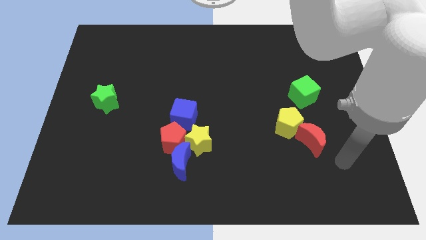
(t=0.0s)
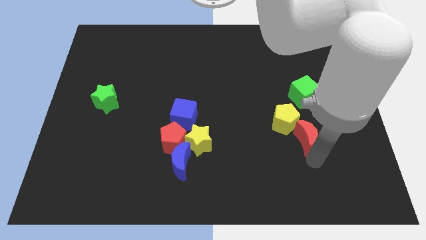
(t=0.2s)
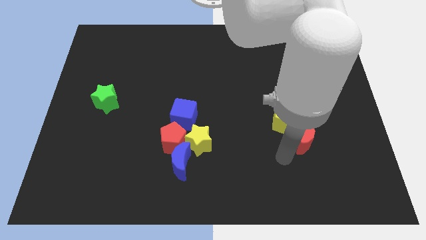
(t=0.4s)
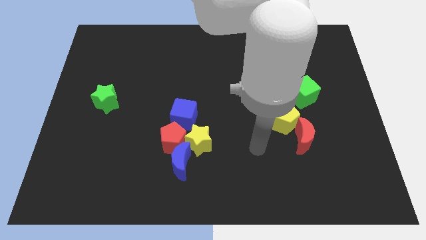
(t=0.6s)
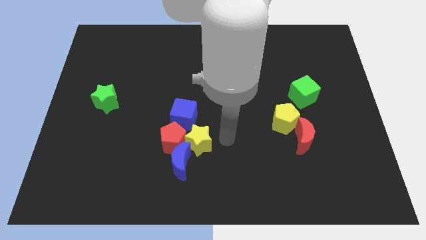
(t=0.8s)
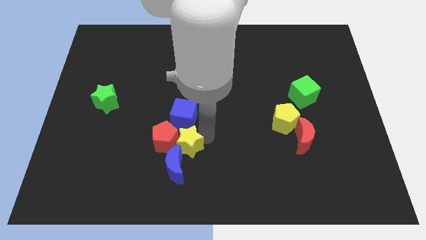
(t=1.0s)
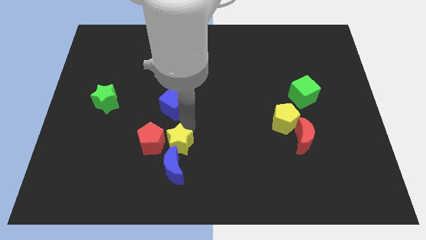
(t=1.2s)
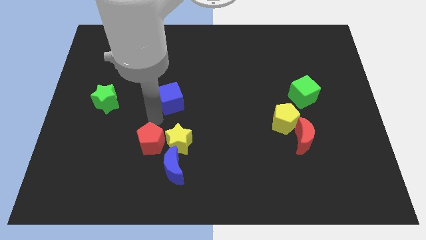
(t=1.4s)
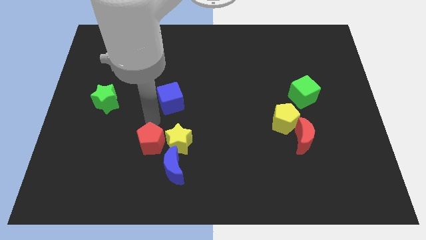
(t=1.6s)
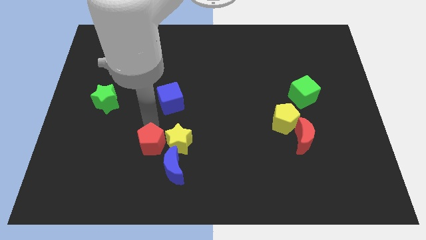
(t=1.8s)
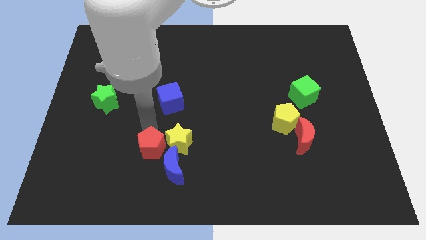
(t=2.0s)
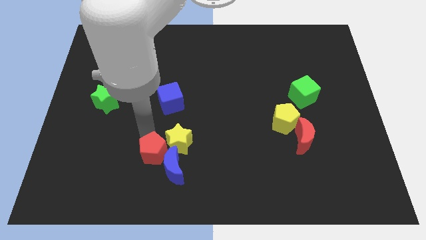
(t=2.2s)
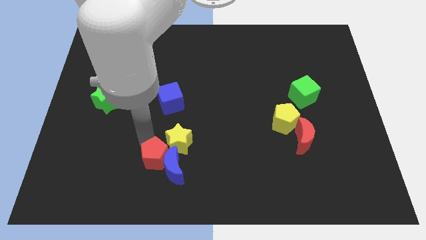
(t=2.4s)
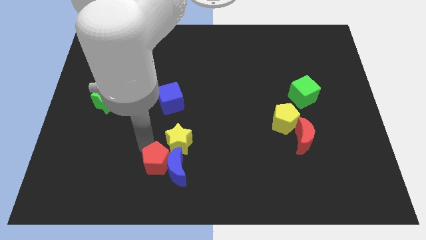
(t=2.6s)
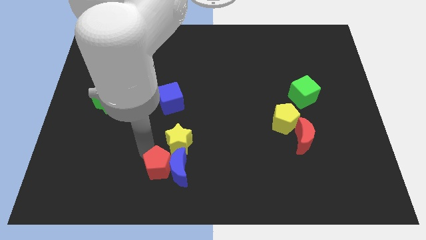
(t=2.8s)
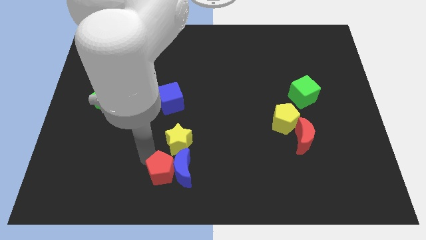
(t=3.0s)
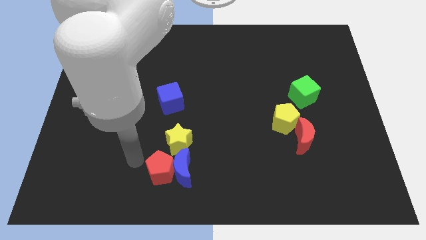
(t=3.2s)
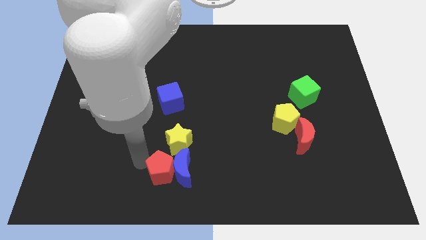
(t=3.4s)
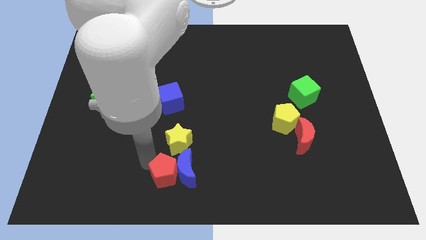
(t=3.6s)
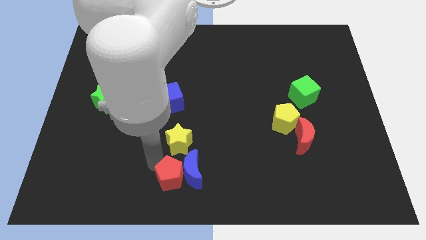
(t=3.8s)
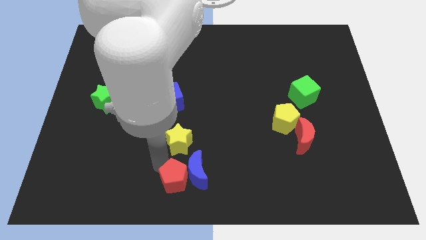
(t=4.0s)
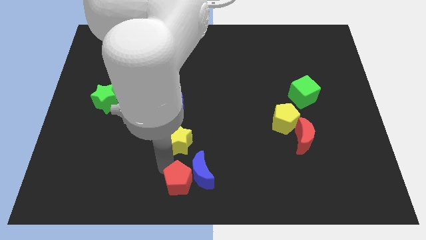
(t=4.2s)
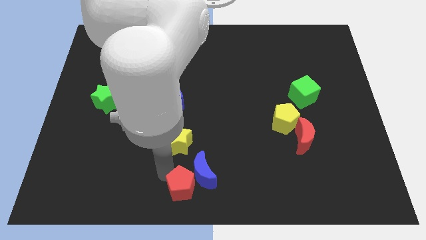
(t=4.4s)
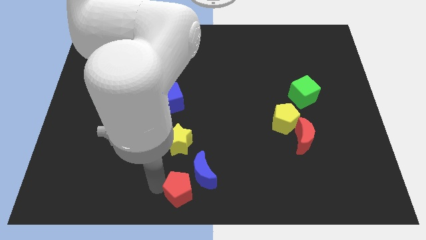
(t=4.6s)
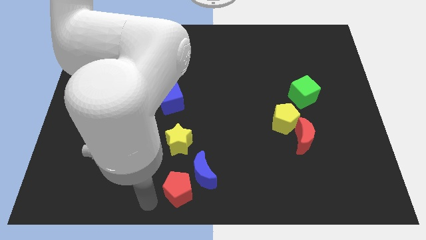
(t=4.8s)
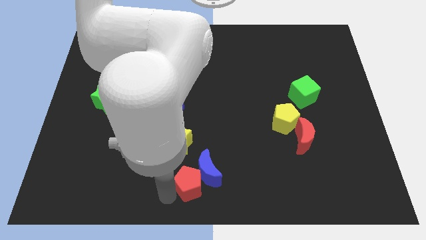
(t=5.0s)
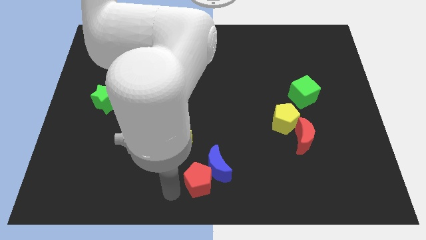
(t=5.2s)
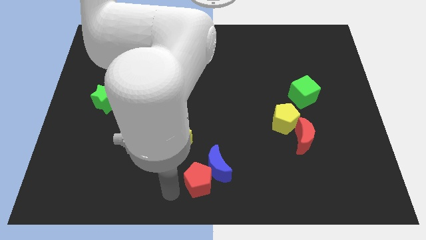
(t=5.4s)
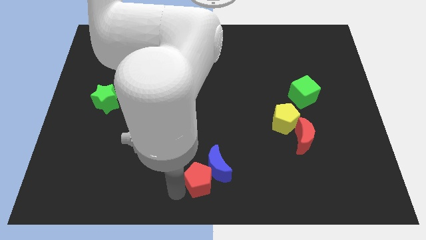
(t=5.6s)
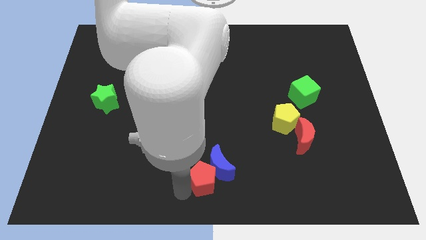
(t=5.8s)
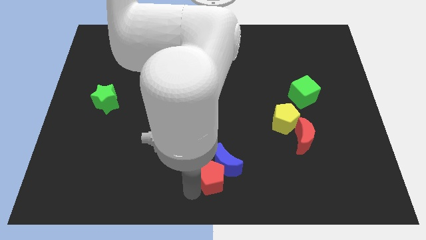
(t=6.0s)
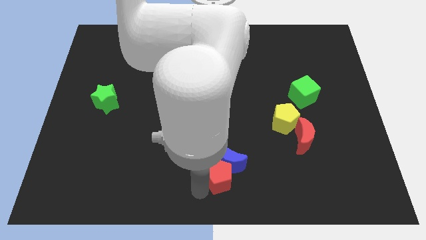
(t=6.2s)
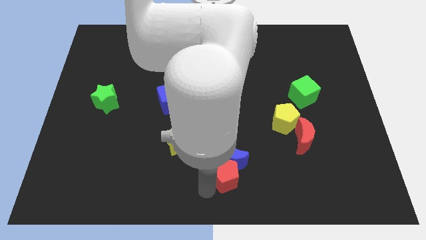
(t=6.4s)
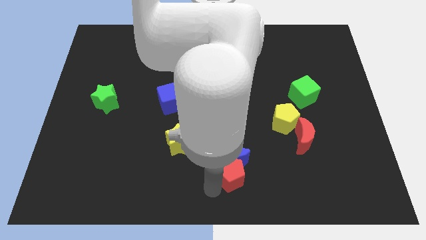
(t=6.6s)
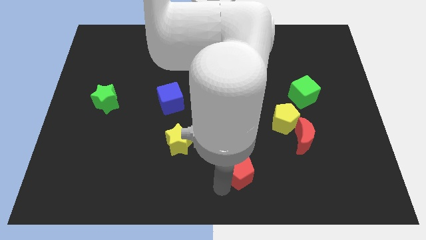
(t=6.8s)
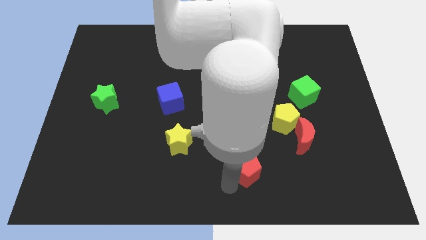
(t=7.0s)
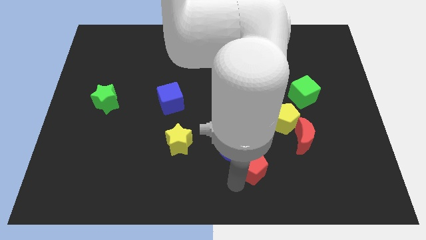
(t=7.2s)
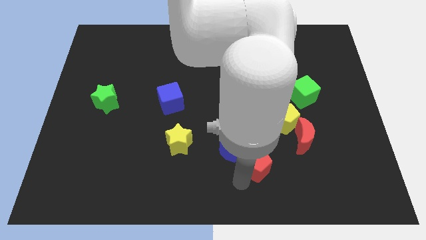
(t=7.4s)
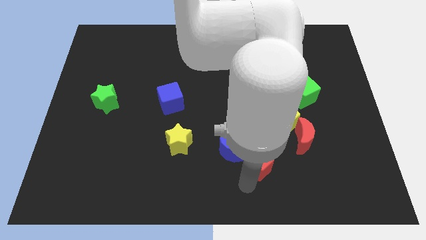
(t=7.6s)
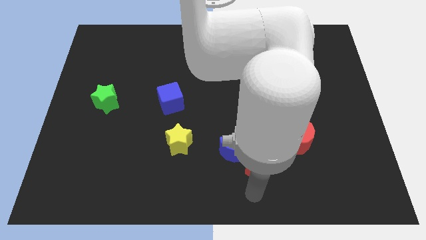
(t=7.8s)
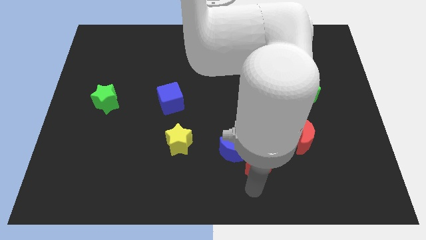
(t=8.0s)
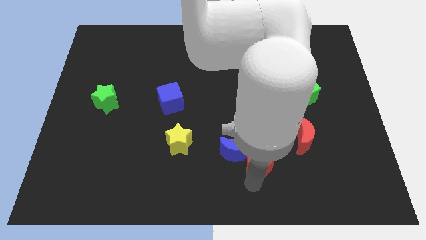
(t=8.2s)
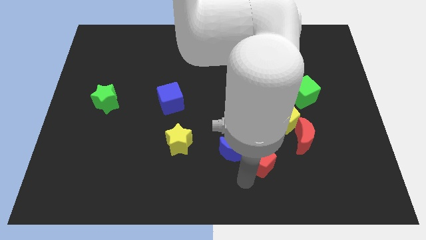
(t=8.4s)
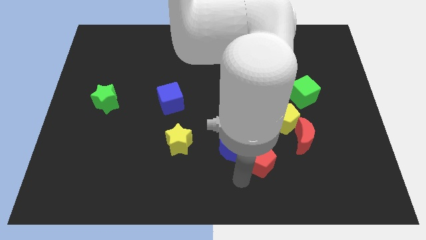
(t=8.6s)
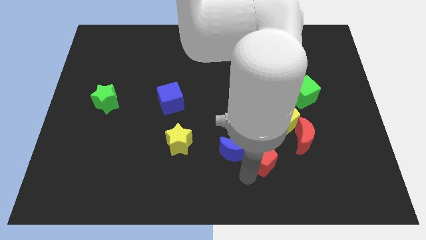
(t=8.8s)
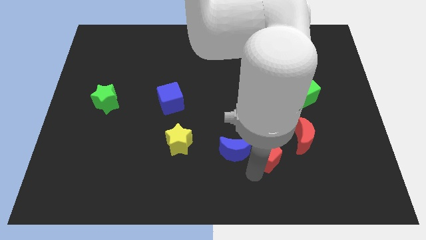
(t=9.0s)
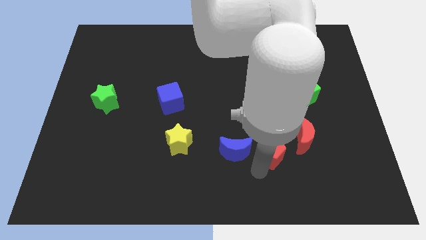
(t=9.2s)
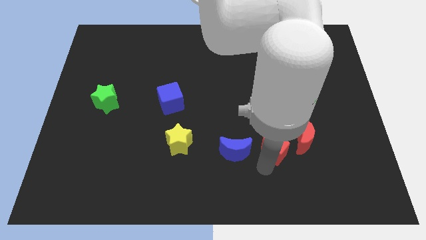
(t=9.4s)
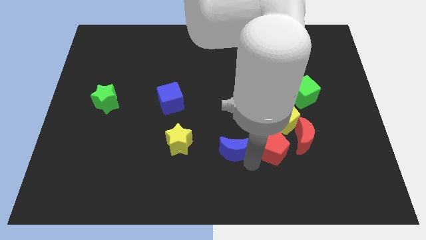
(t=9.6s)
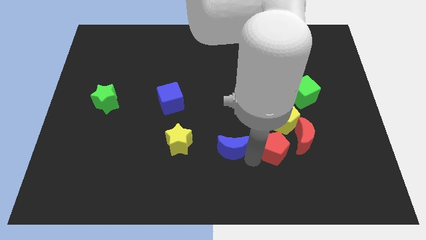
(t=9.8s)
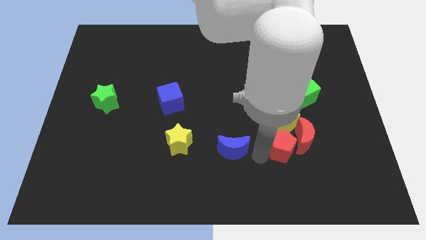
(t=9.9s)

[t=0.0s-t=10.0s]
put the red pentagon close to the red moon

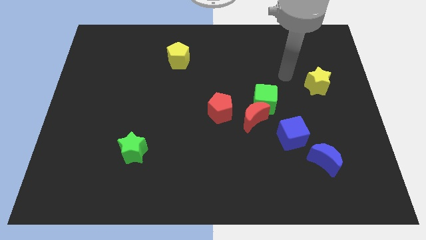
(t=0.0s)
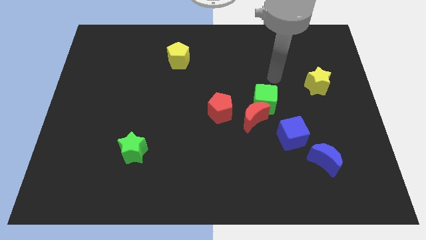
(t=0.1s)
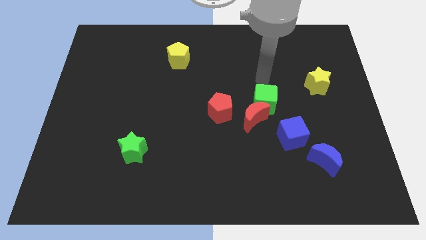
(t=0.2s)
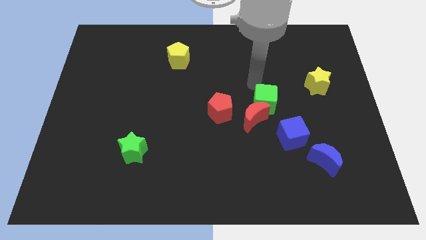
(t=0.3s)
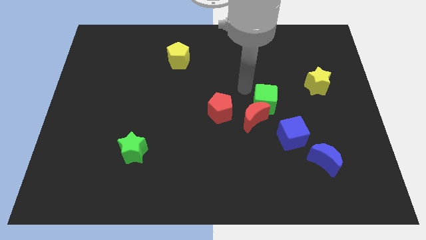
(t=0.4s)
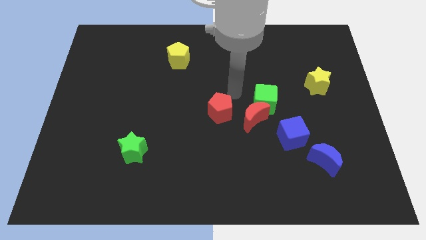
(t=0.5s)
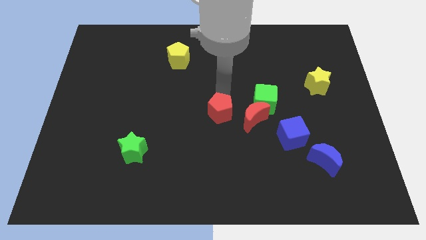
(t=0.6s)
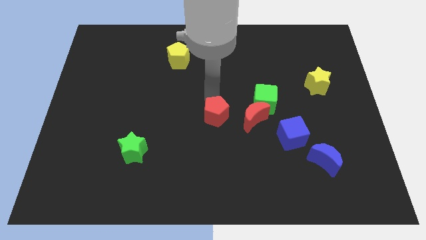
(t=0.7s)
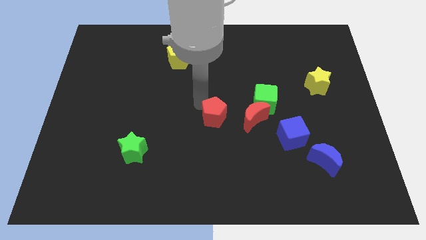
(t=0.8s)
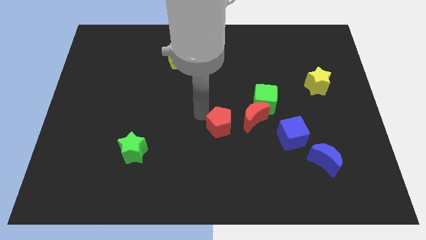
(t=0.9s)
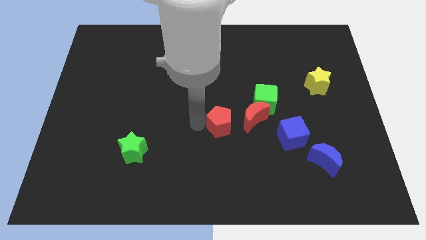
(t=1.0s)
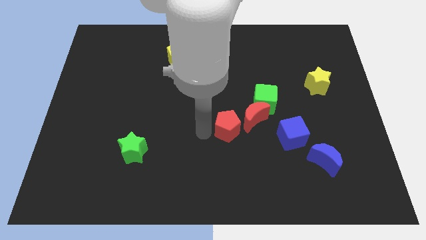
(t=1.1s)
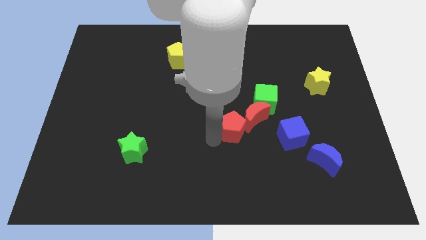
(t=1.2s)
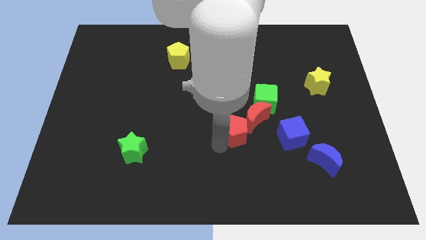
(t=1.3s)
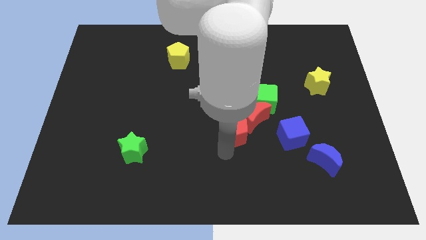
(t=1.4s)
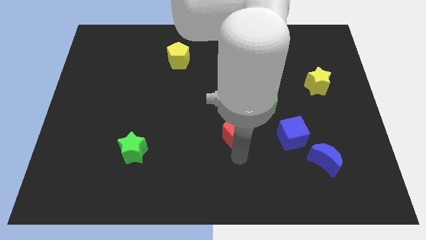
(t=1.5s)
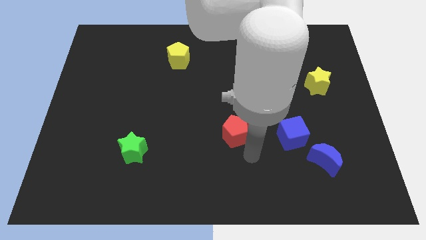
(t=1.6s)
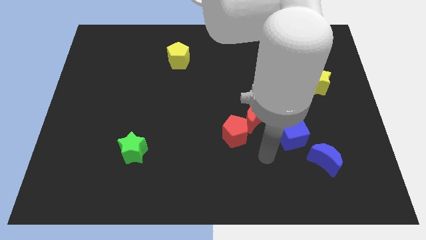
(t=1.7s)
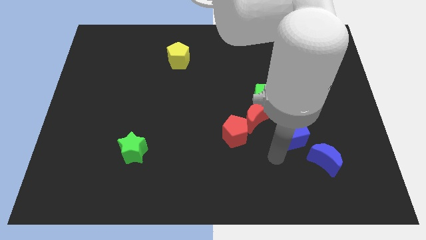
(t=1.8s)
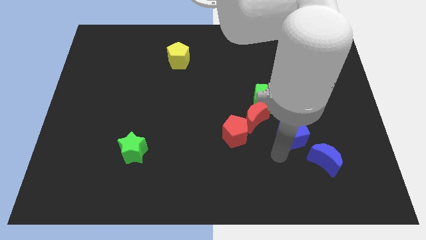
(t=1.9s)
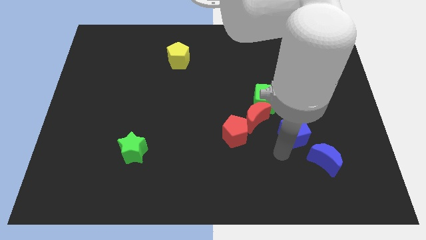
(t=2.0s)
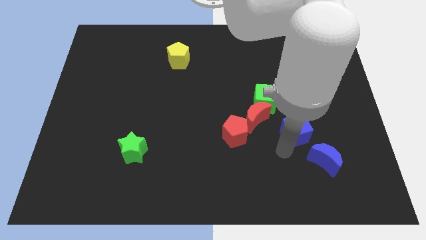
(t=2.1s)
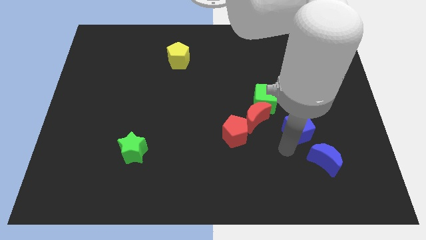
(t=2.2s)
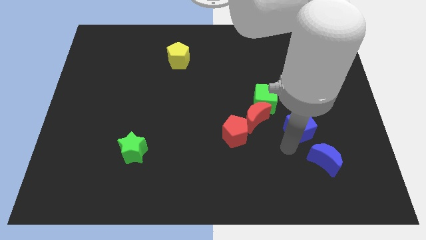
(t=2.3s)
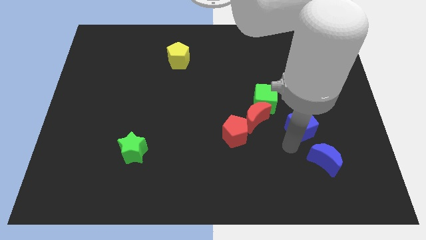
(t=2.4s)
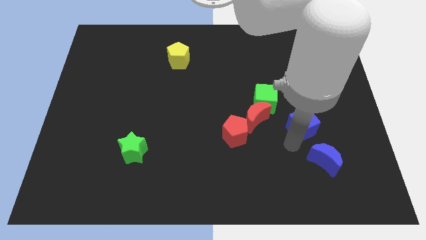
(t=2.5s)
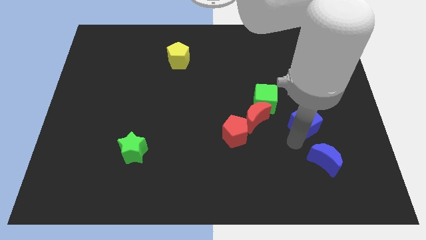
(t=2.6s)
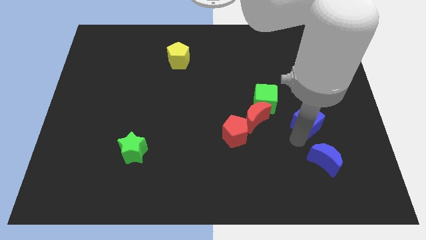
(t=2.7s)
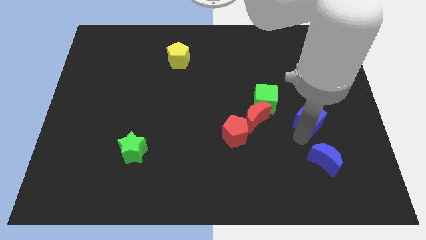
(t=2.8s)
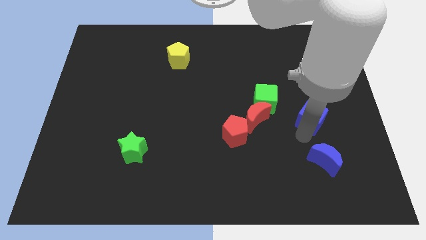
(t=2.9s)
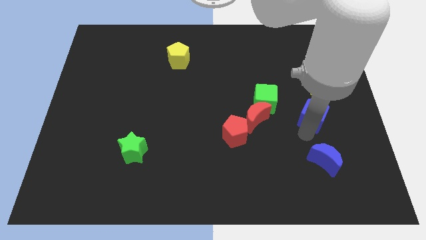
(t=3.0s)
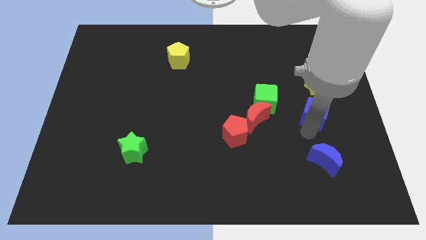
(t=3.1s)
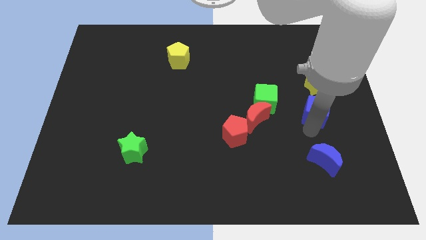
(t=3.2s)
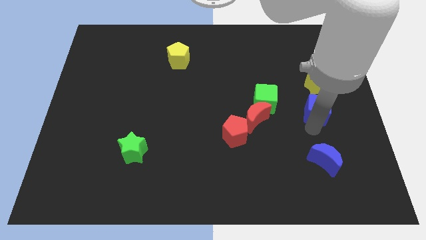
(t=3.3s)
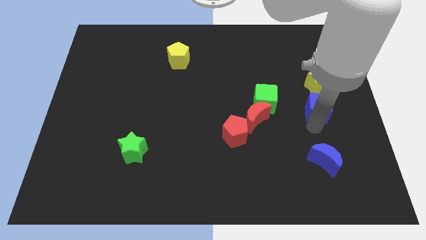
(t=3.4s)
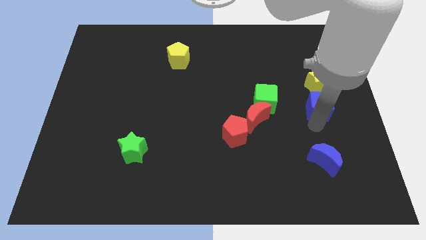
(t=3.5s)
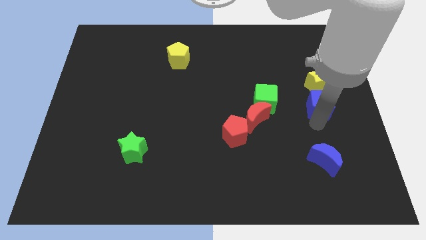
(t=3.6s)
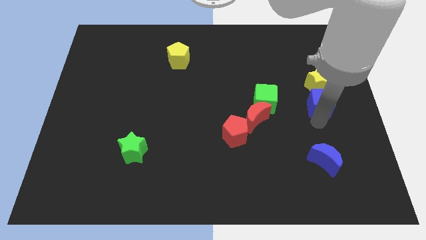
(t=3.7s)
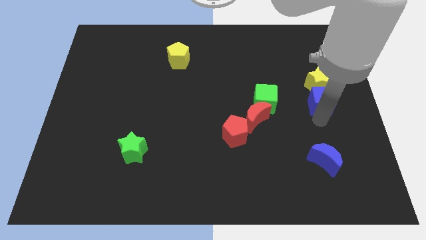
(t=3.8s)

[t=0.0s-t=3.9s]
move the blue cube to the yellow star
